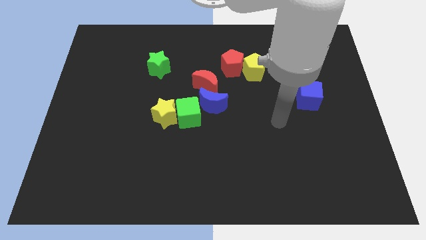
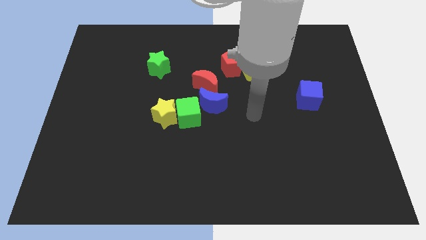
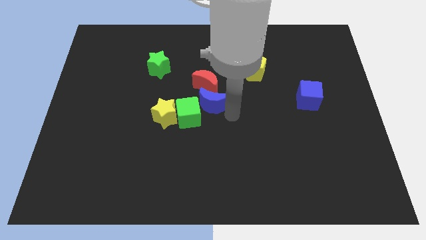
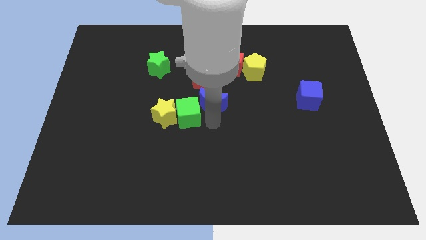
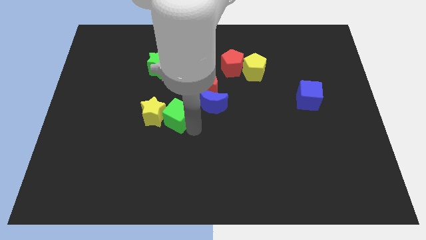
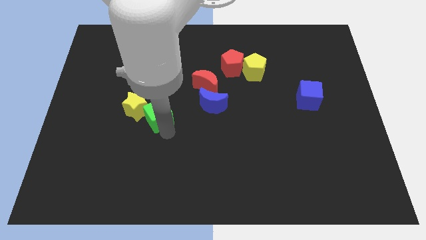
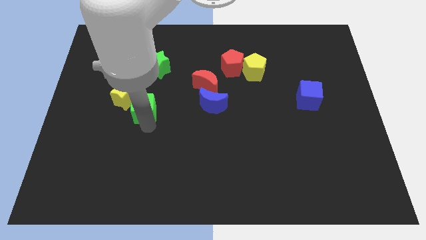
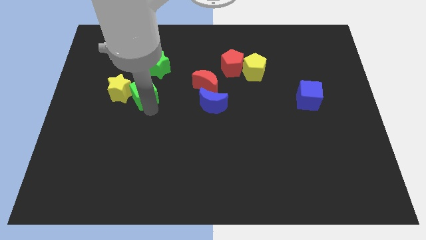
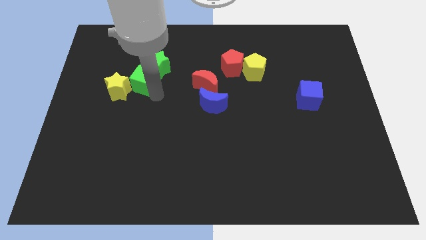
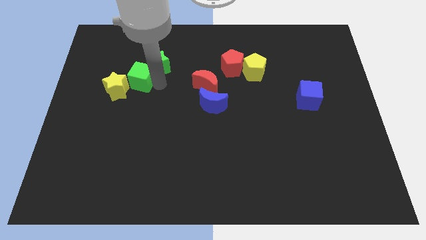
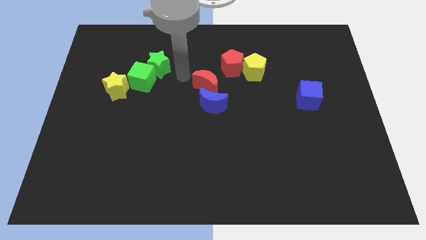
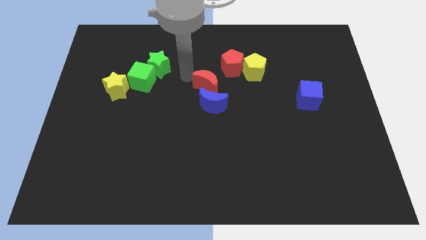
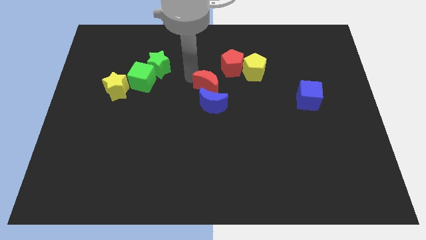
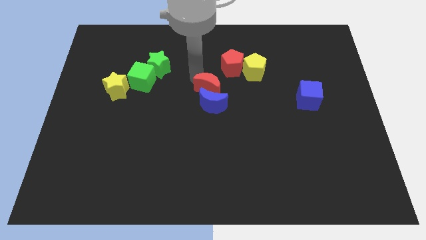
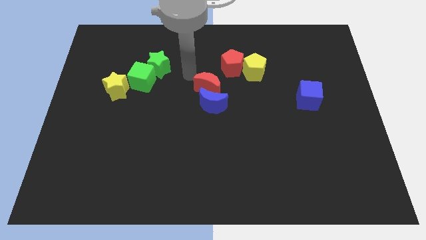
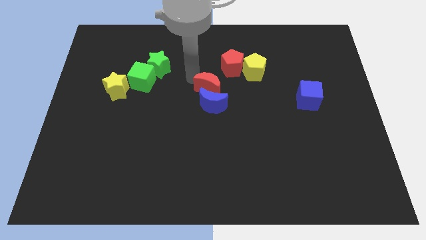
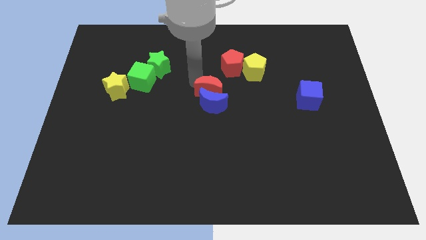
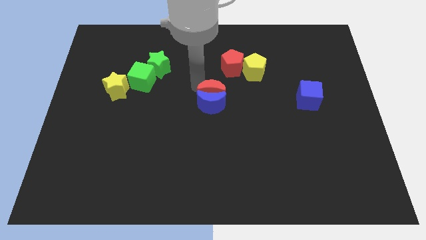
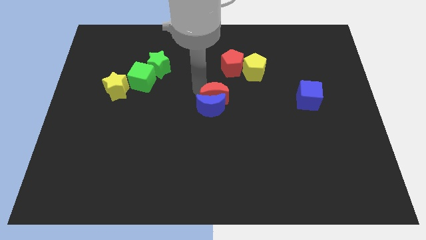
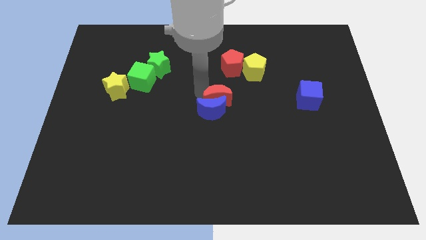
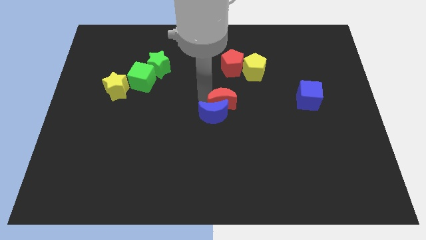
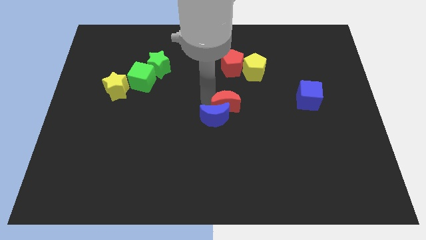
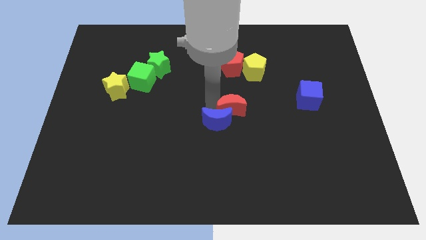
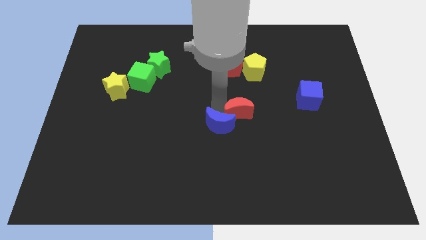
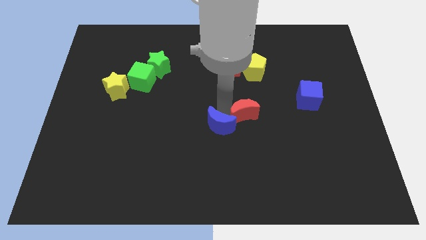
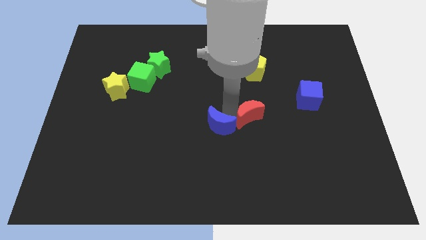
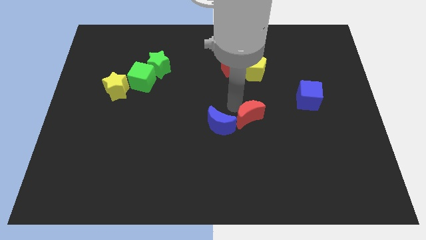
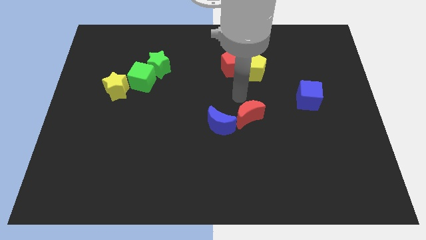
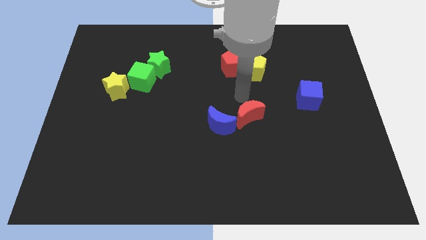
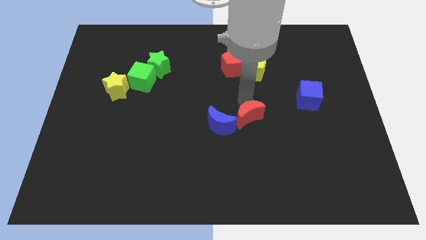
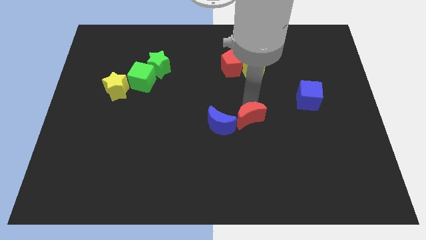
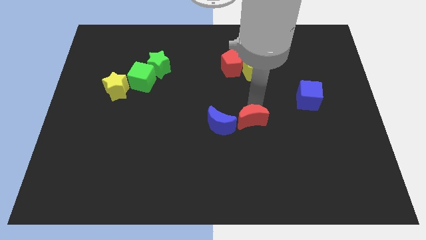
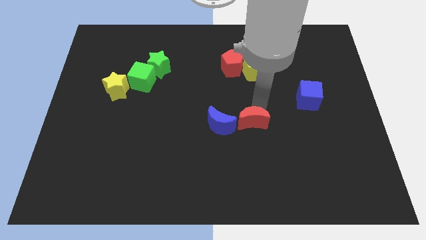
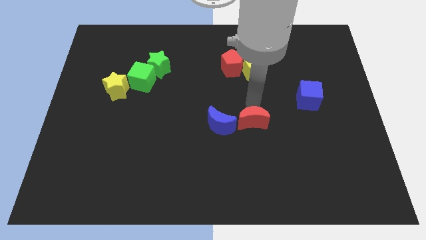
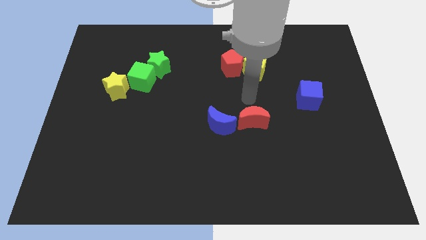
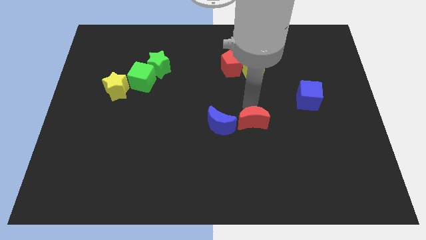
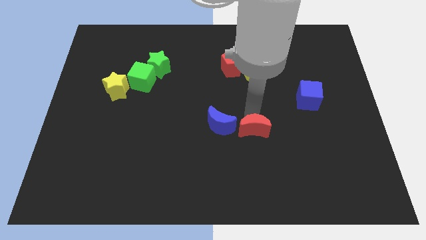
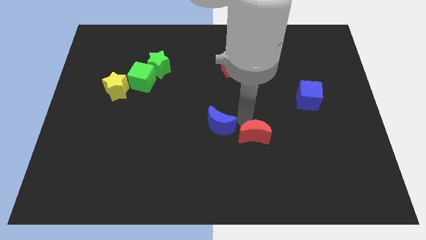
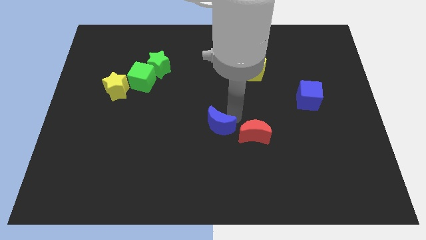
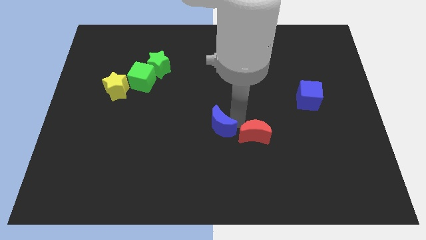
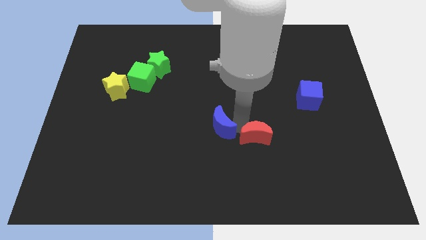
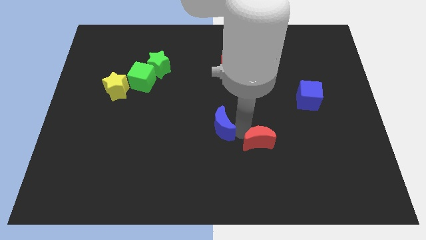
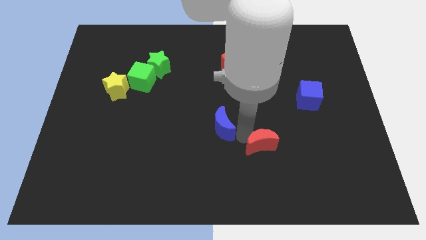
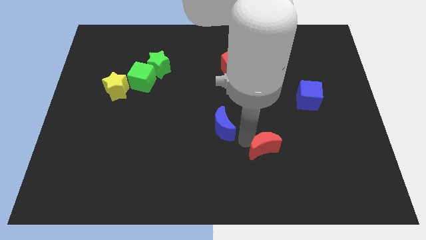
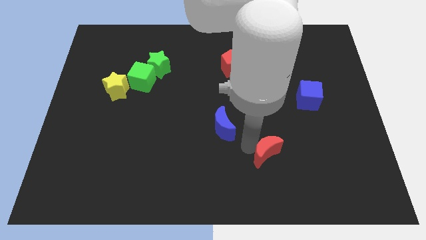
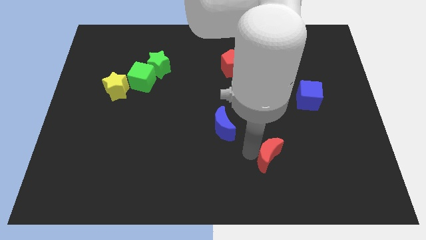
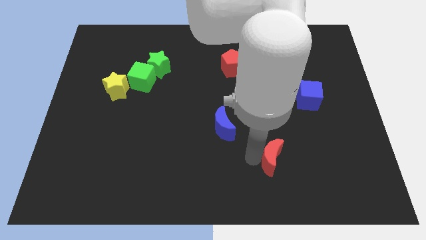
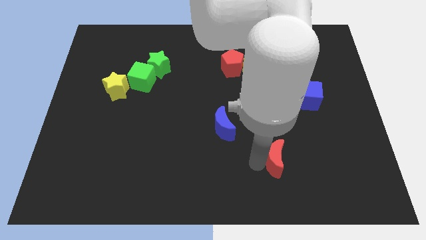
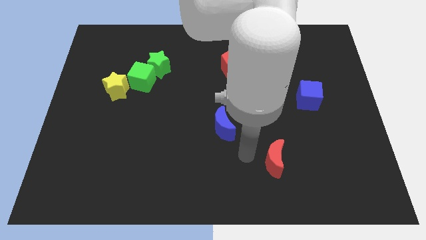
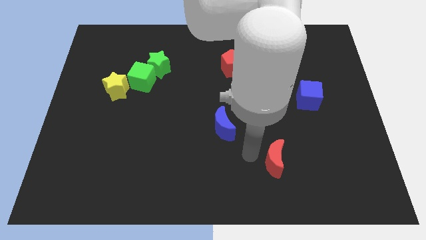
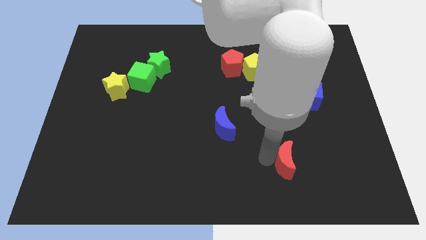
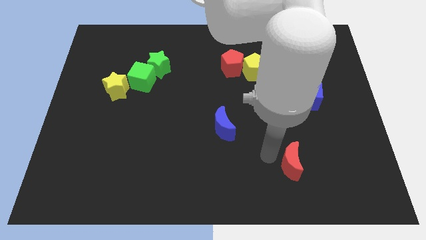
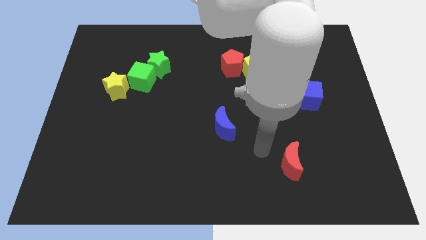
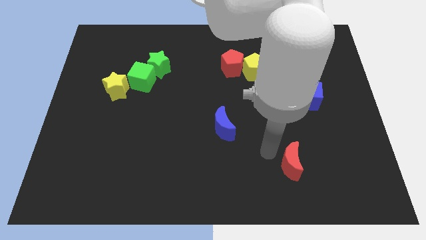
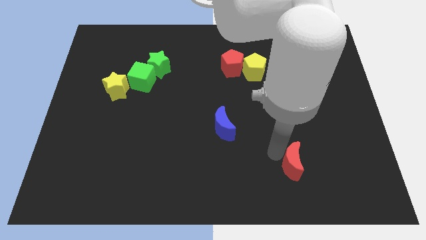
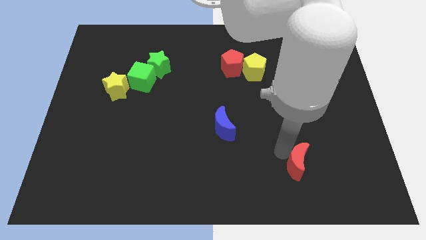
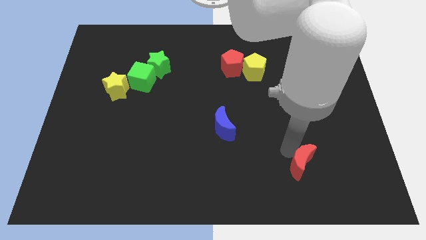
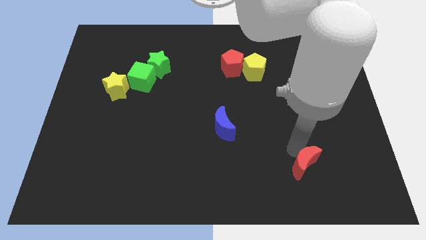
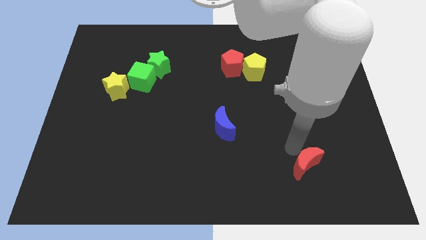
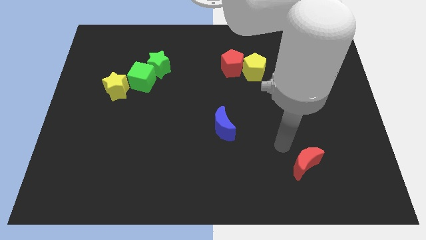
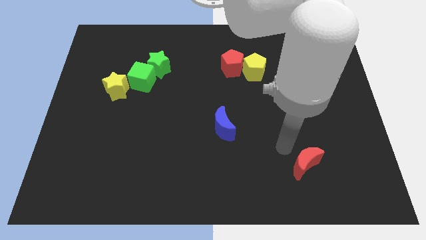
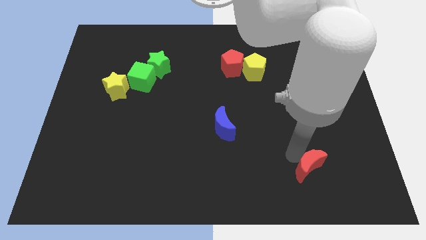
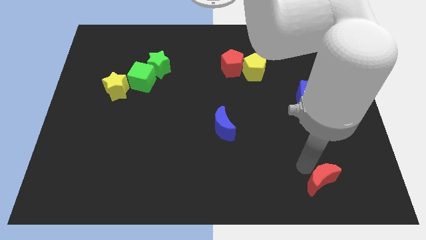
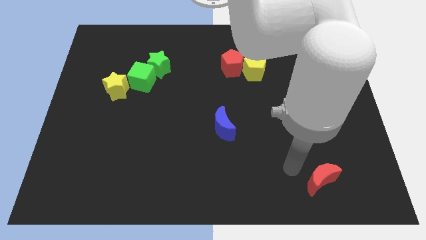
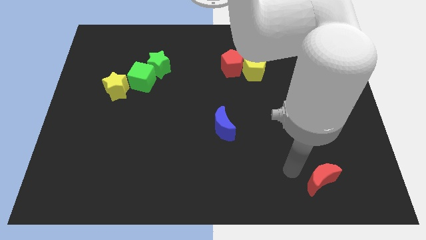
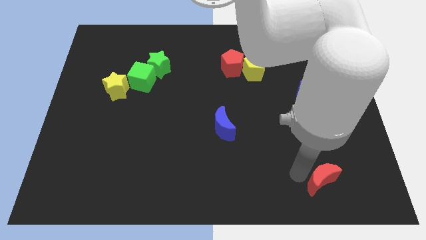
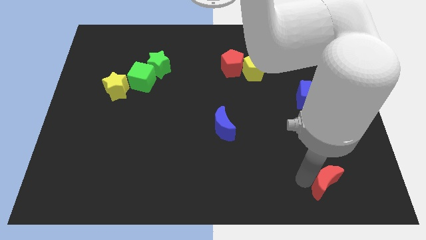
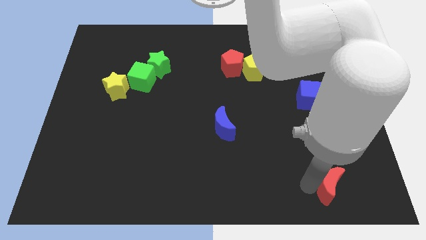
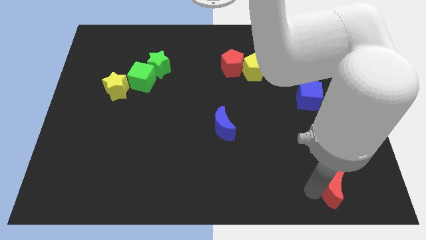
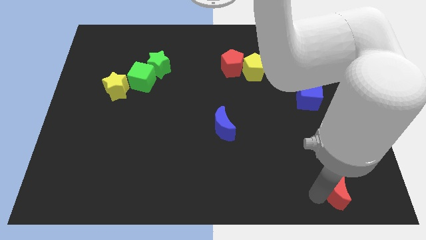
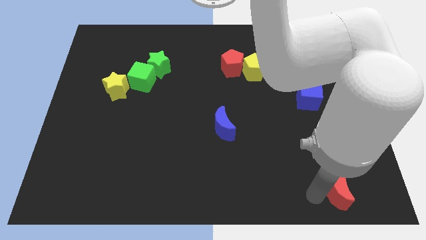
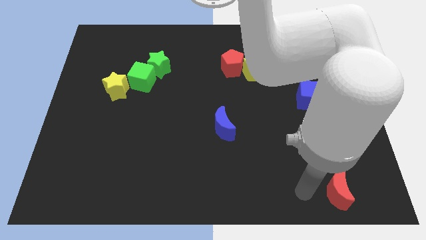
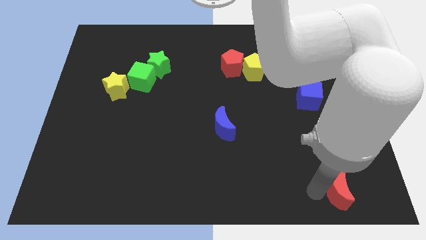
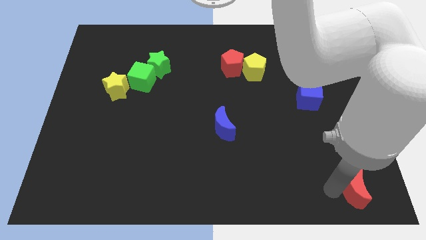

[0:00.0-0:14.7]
move the red moon to the bottom right
